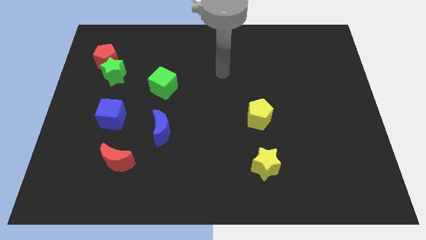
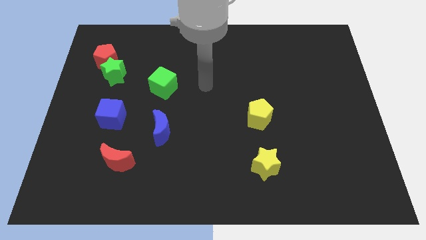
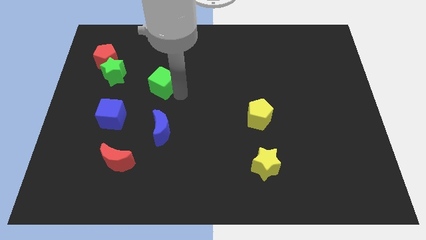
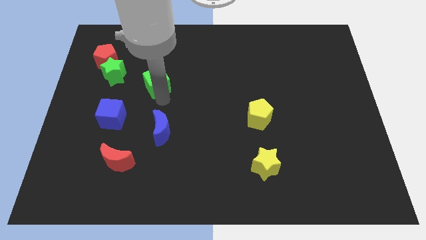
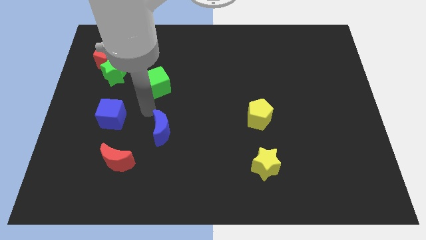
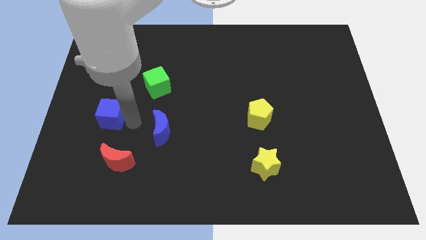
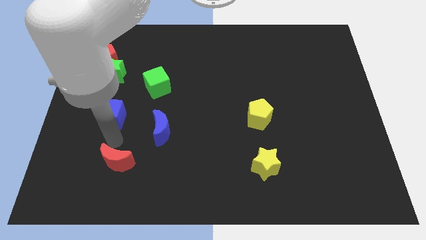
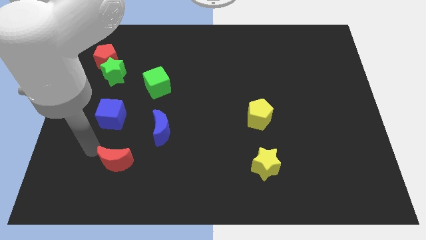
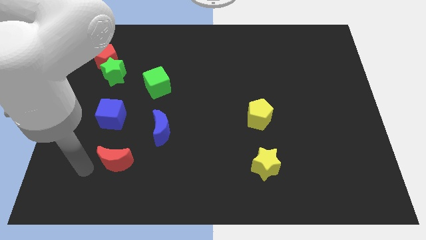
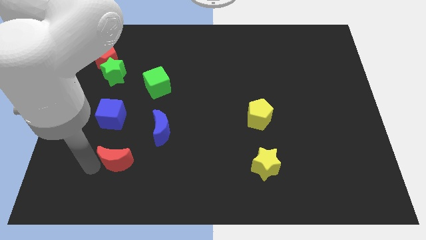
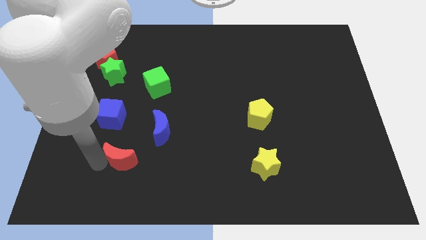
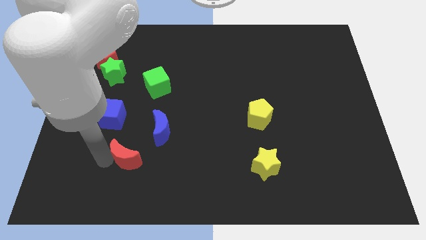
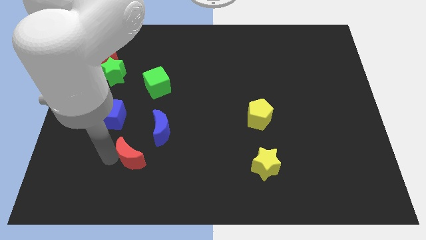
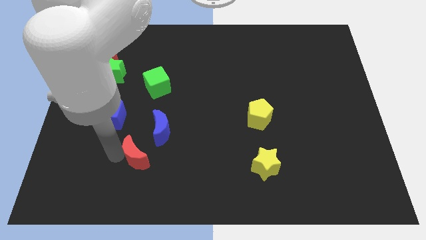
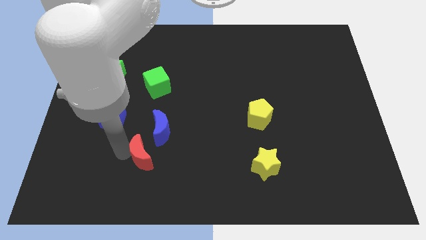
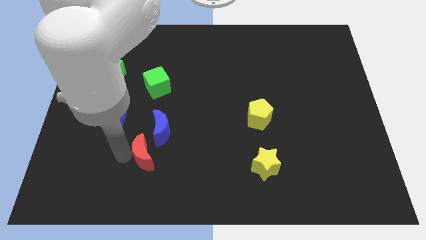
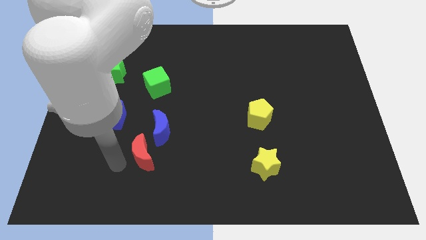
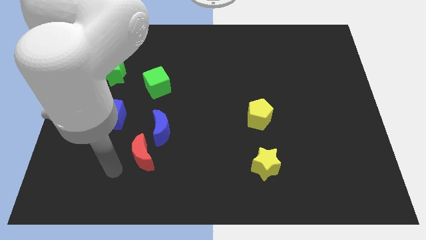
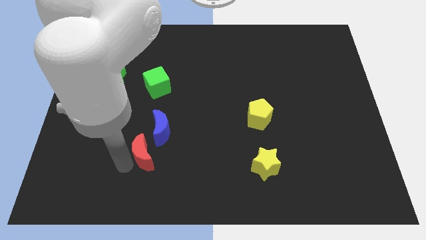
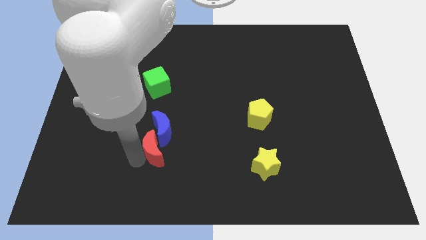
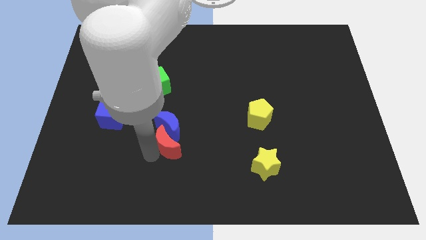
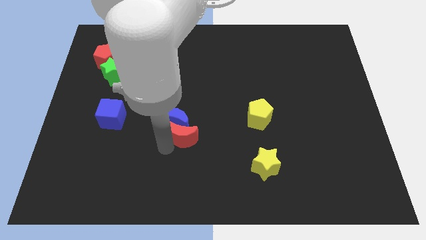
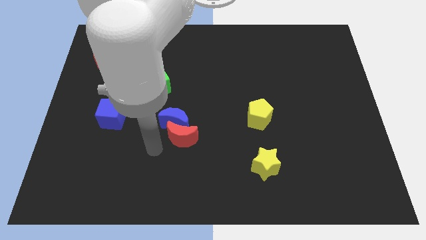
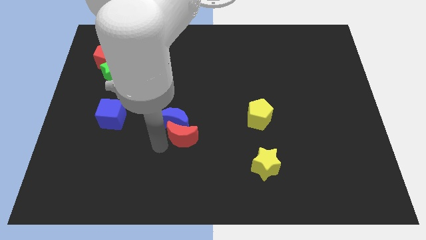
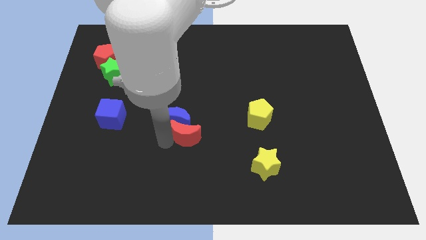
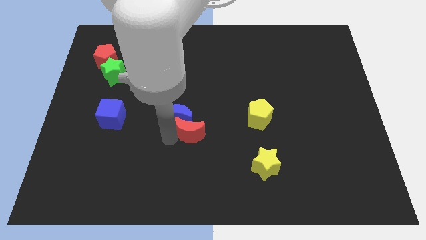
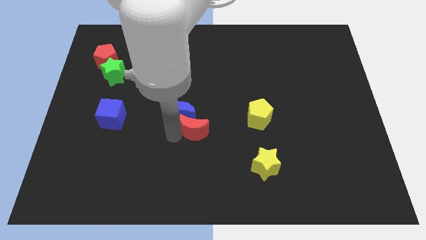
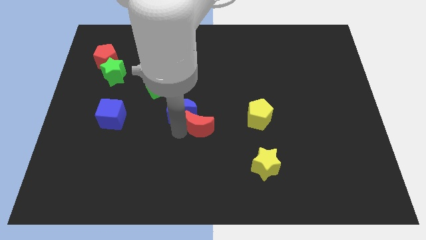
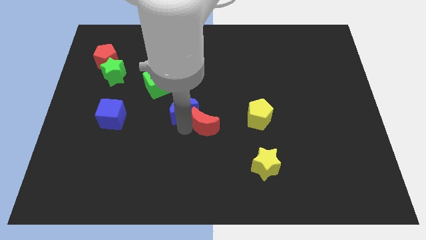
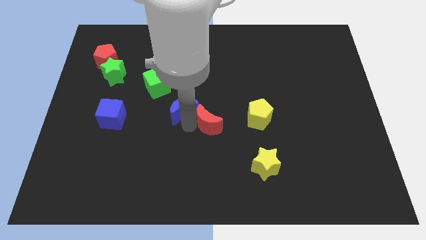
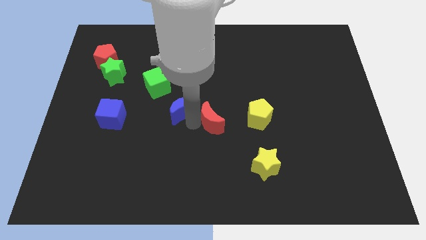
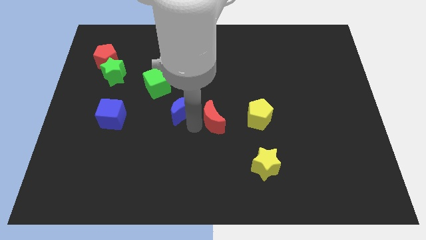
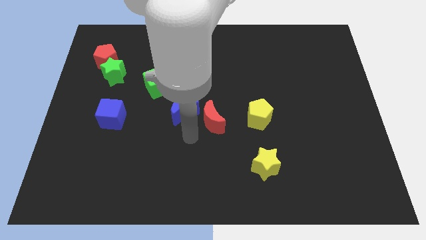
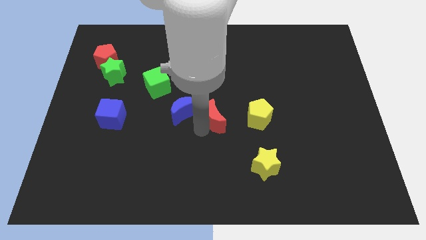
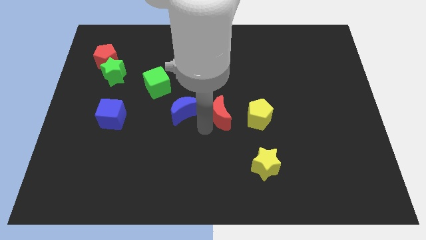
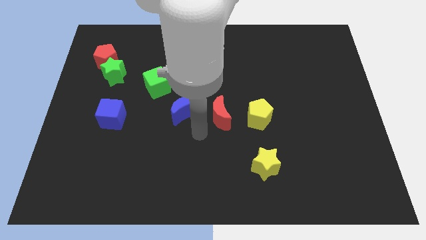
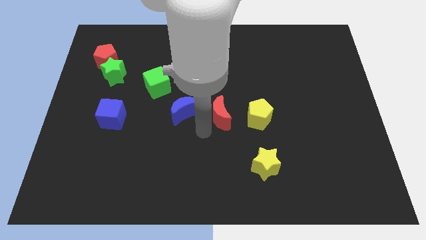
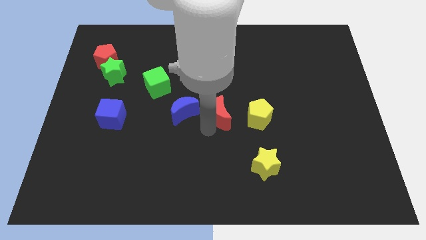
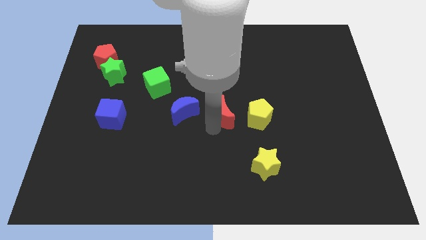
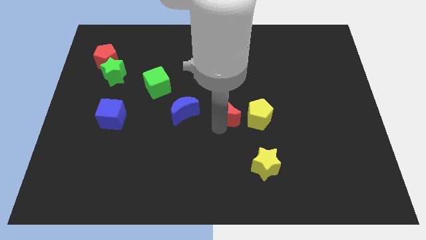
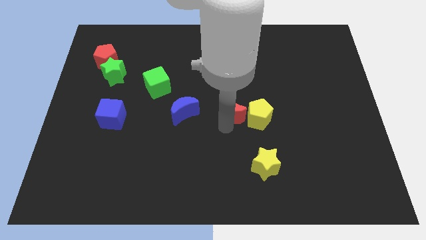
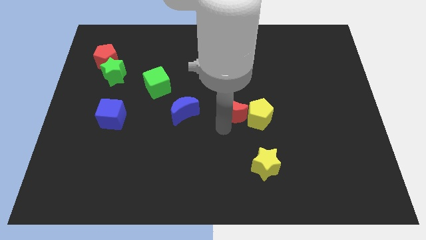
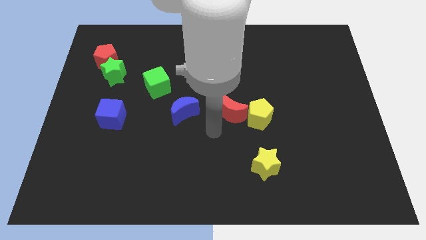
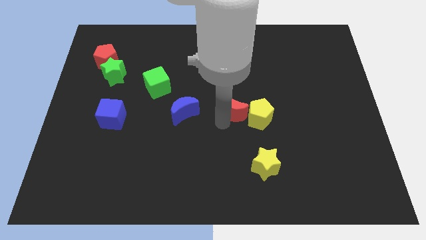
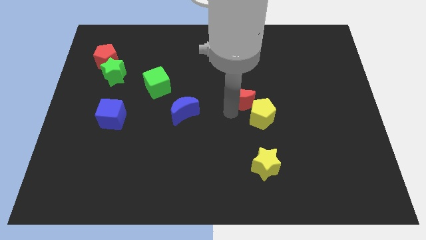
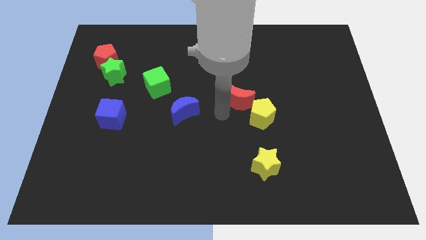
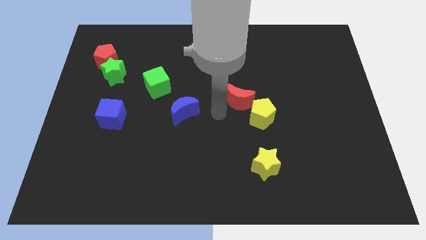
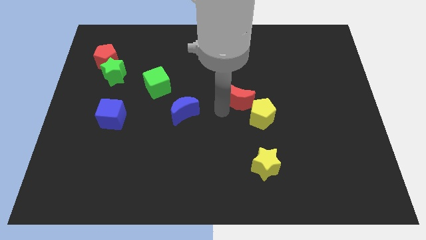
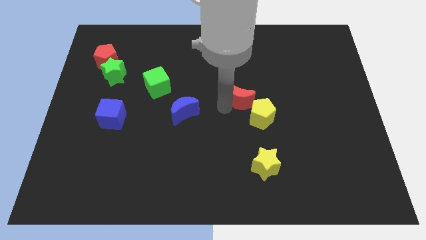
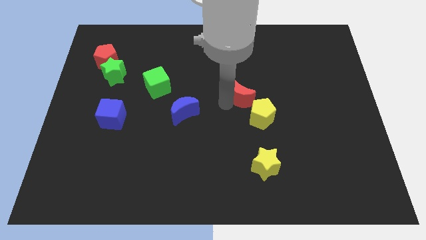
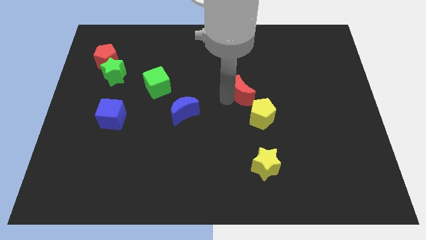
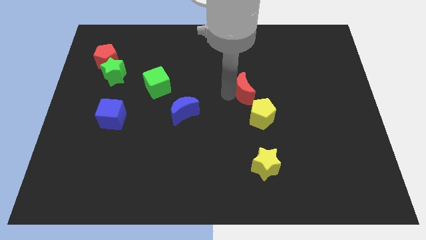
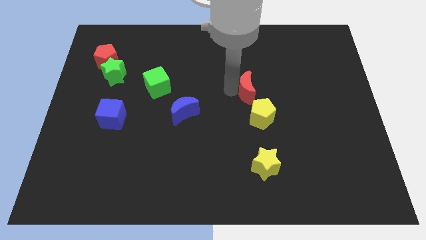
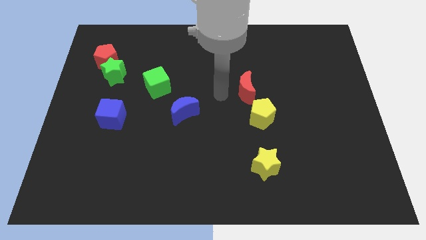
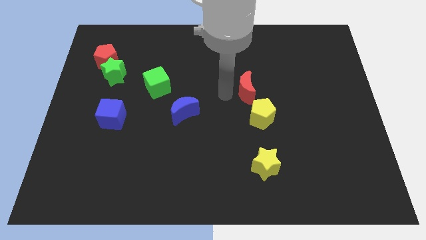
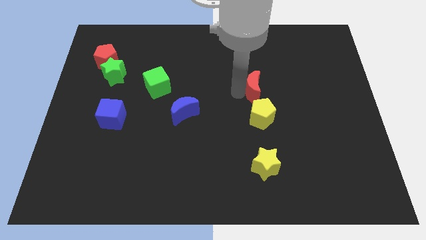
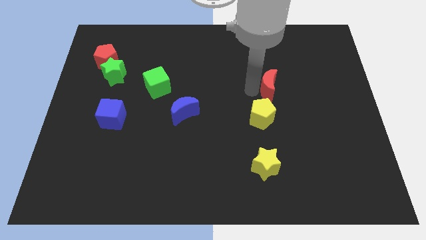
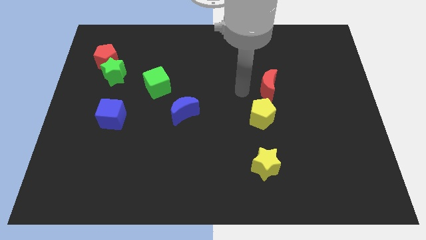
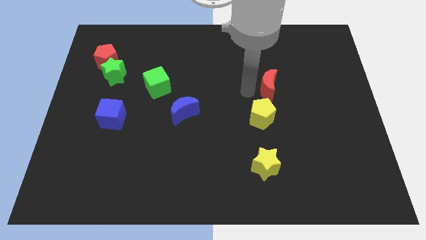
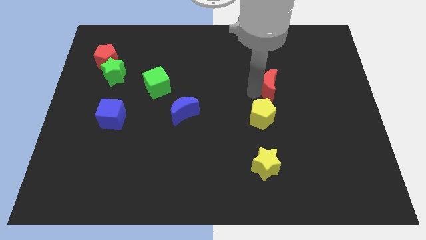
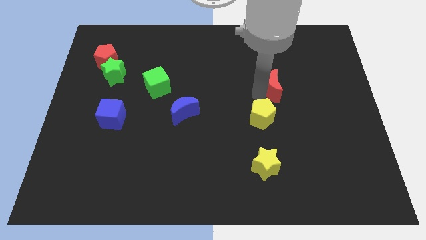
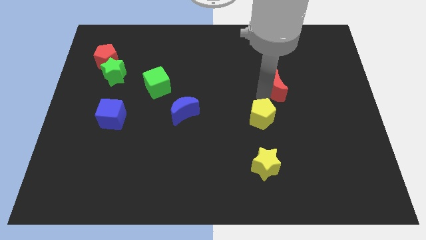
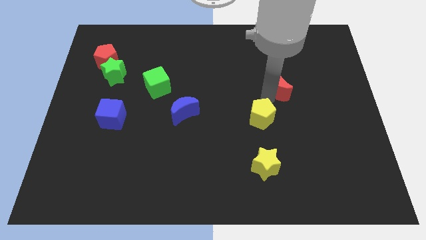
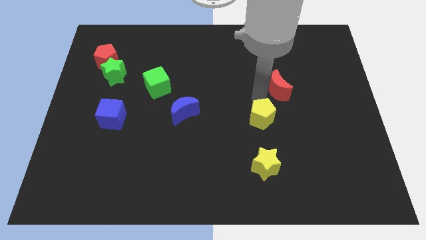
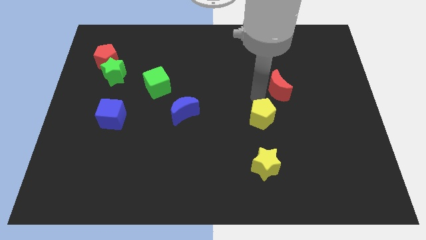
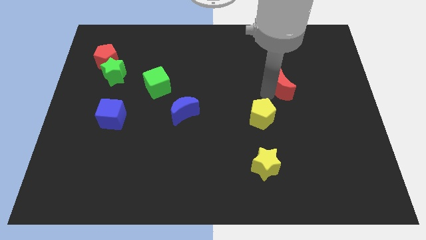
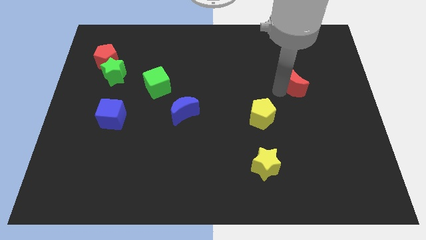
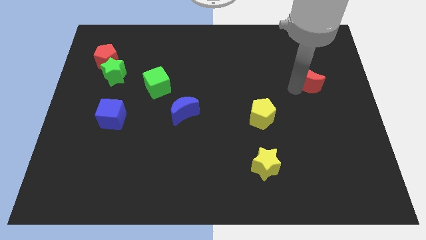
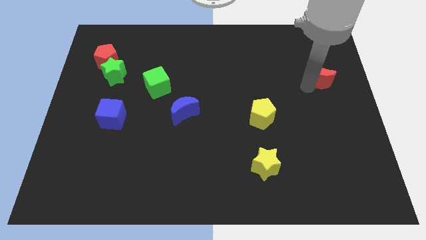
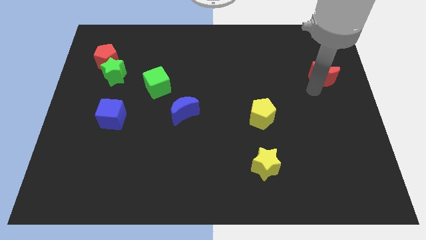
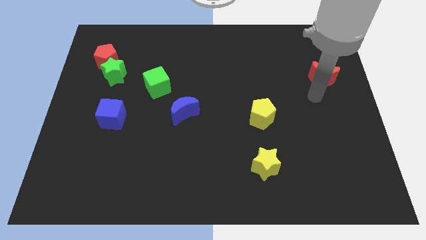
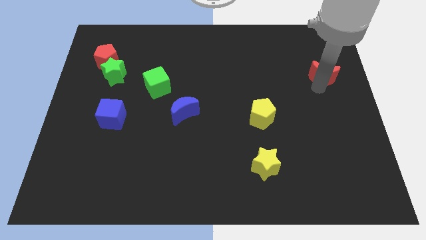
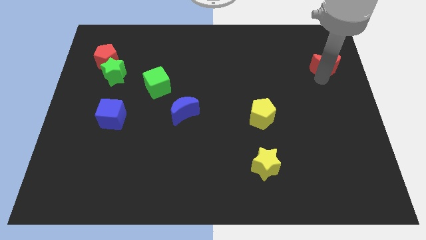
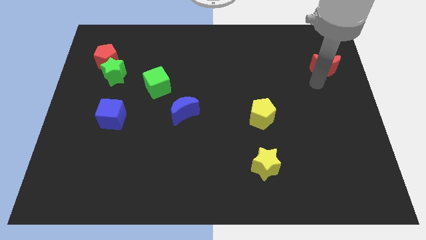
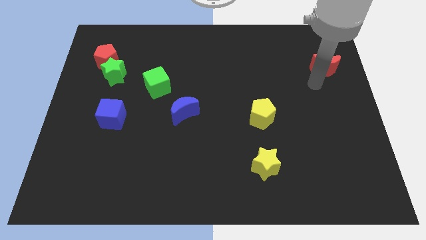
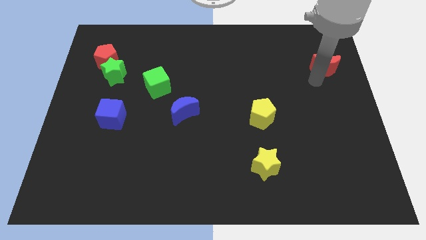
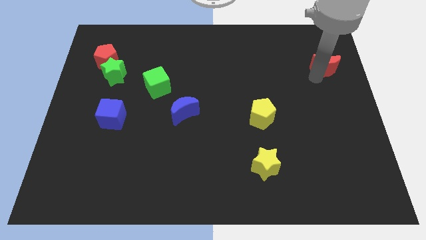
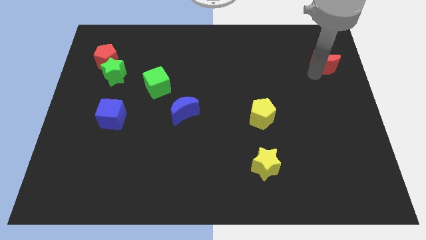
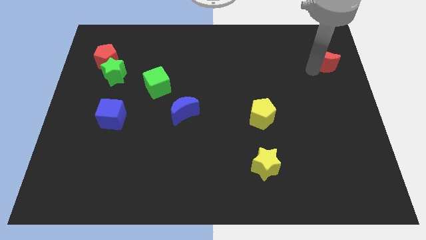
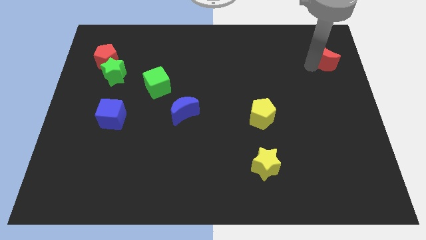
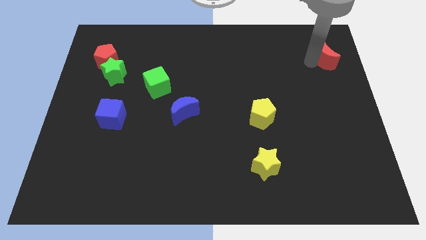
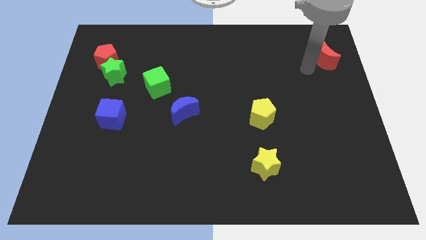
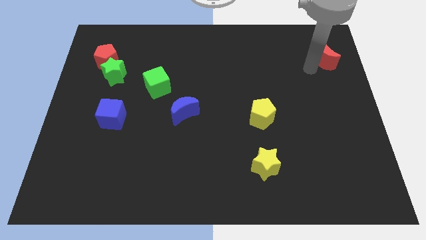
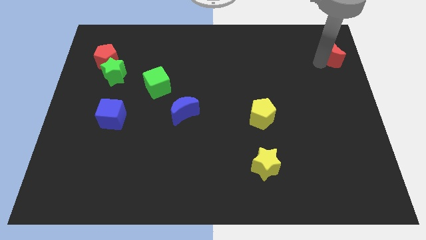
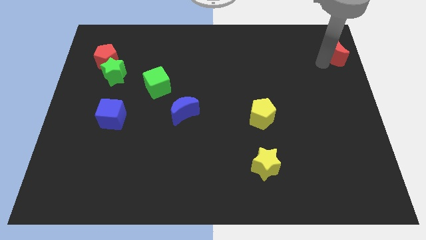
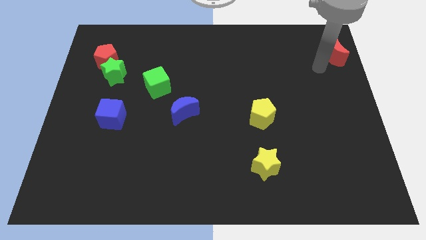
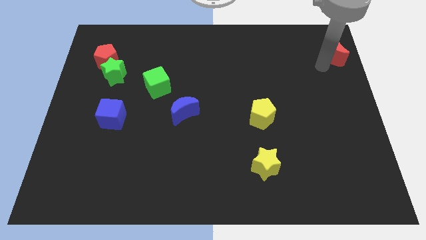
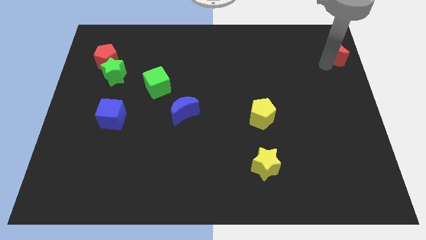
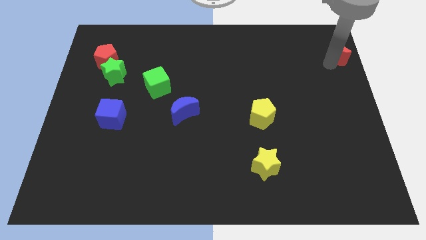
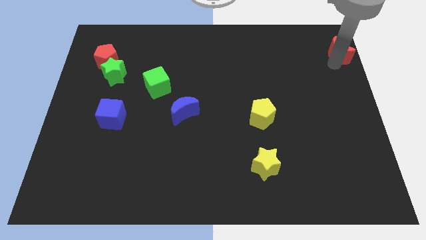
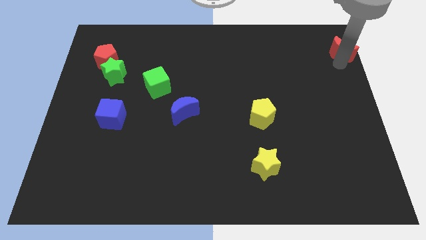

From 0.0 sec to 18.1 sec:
slide the red moon to the top right of the board
